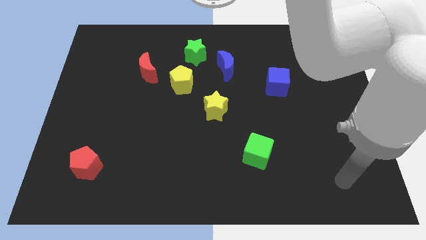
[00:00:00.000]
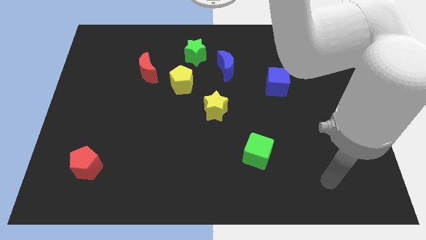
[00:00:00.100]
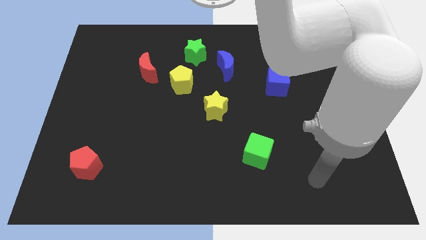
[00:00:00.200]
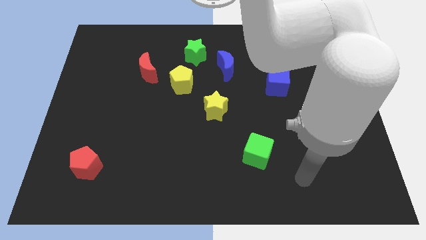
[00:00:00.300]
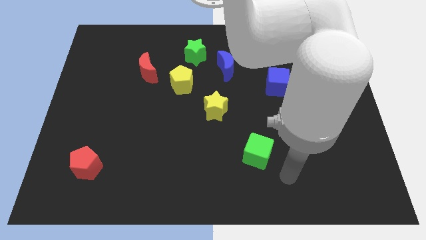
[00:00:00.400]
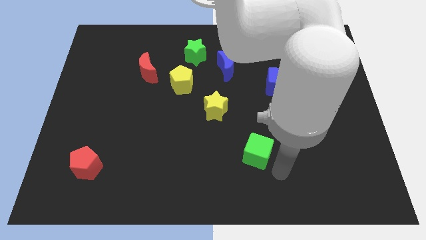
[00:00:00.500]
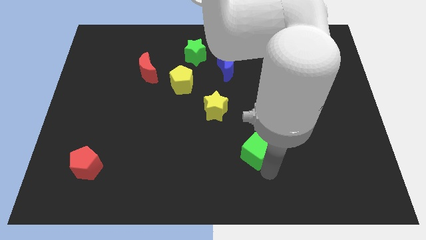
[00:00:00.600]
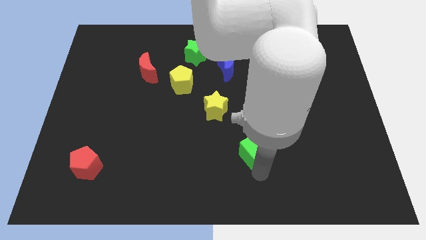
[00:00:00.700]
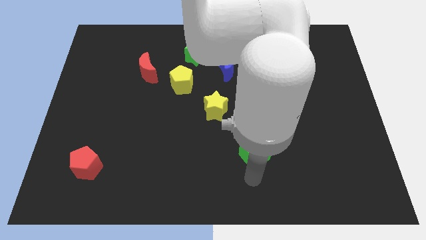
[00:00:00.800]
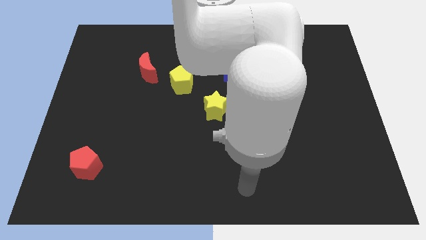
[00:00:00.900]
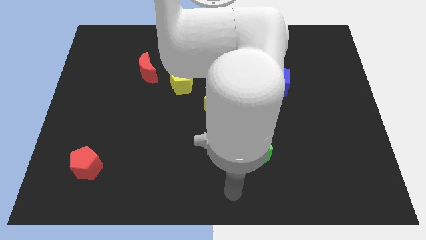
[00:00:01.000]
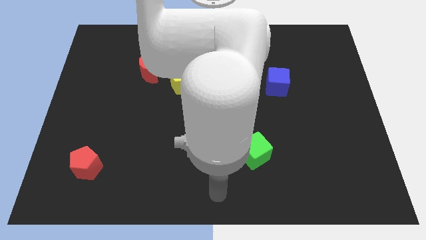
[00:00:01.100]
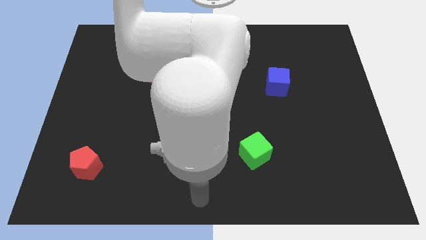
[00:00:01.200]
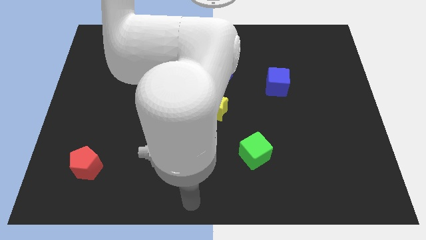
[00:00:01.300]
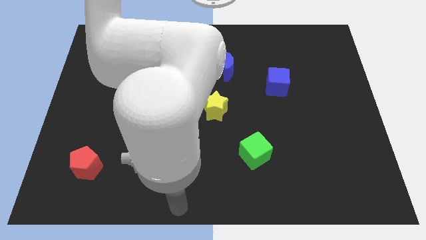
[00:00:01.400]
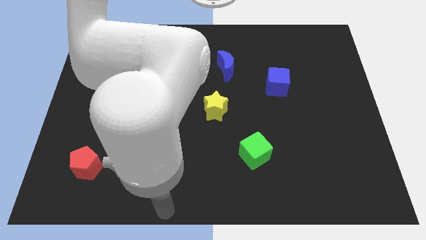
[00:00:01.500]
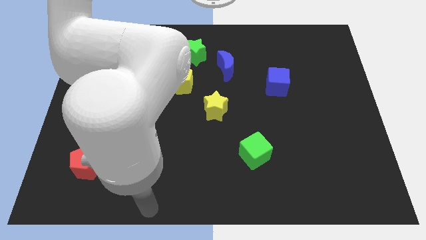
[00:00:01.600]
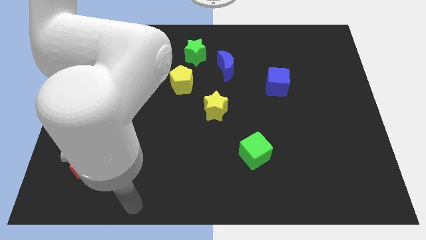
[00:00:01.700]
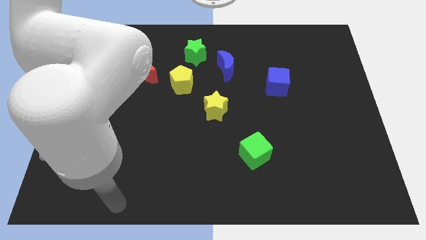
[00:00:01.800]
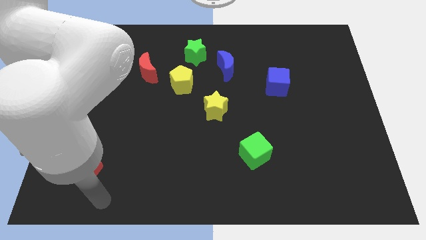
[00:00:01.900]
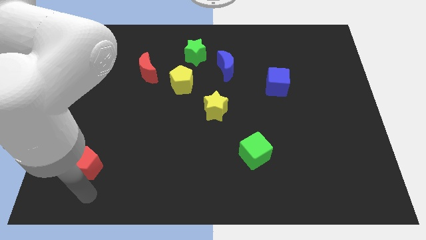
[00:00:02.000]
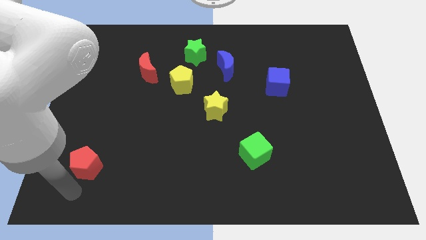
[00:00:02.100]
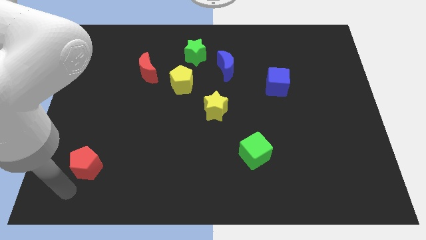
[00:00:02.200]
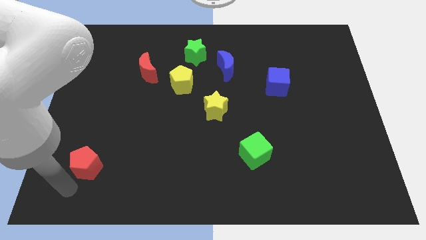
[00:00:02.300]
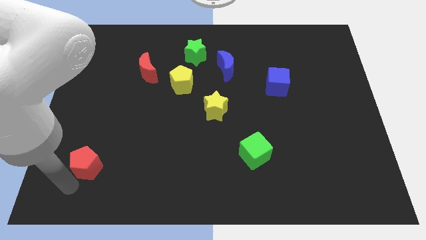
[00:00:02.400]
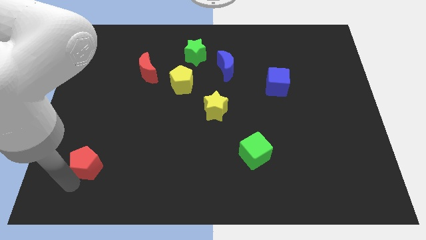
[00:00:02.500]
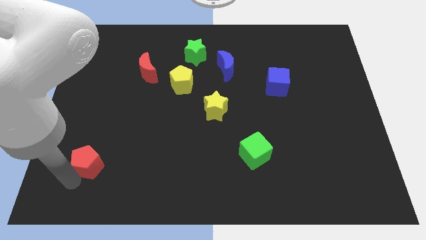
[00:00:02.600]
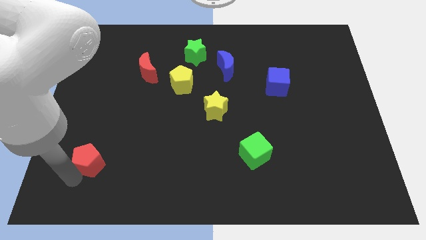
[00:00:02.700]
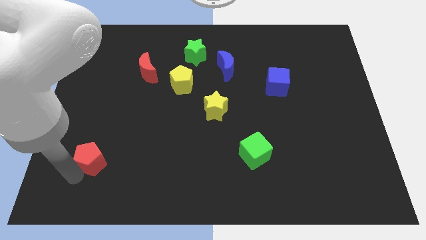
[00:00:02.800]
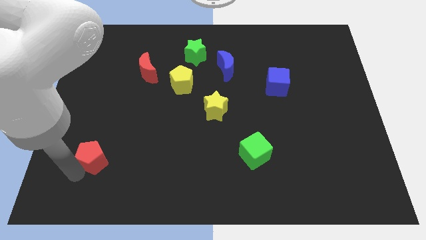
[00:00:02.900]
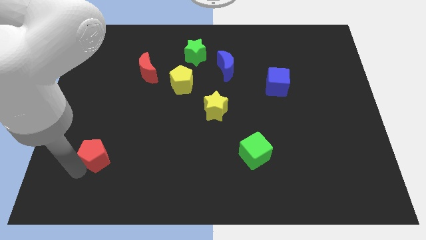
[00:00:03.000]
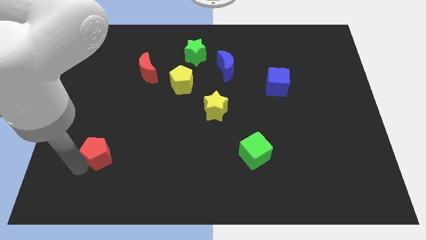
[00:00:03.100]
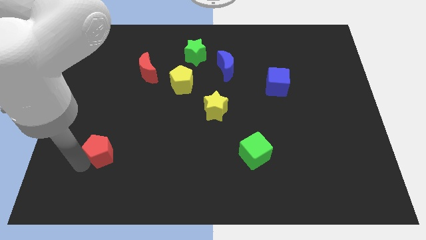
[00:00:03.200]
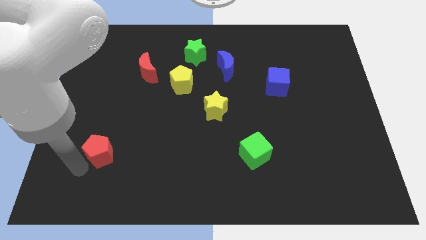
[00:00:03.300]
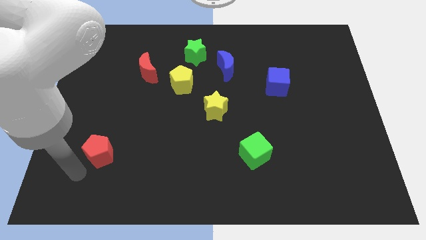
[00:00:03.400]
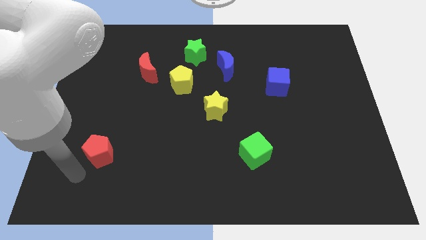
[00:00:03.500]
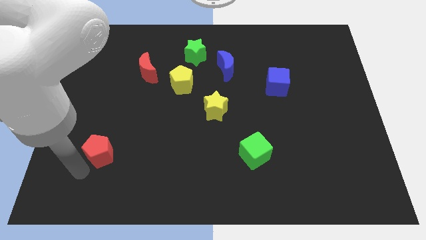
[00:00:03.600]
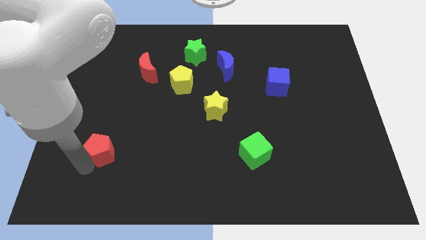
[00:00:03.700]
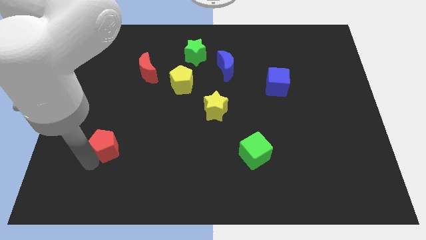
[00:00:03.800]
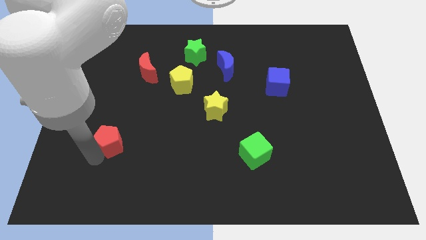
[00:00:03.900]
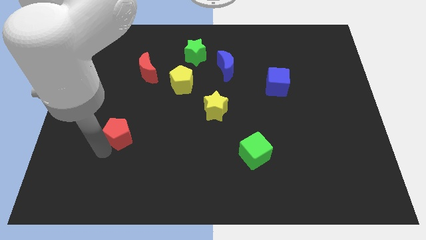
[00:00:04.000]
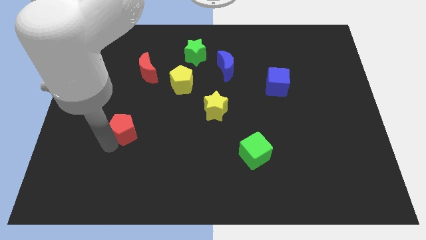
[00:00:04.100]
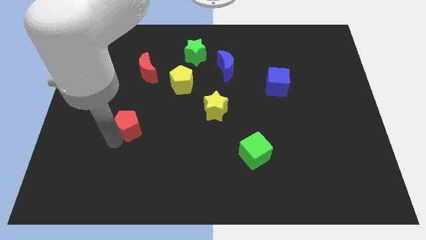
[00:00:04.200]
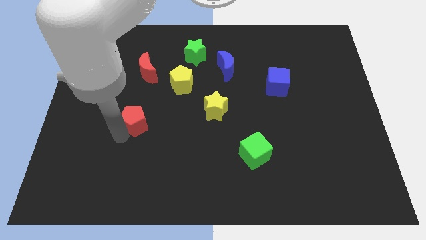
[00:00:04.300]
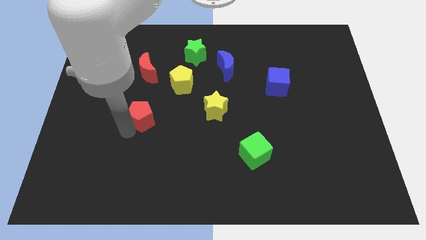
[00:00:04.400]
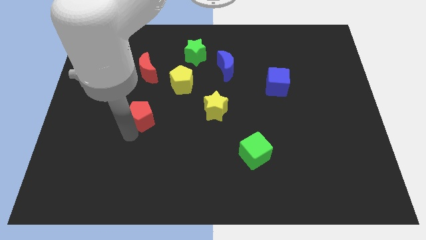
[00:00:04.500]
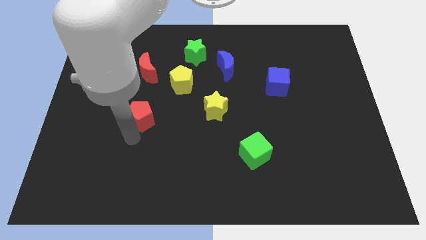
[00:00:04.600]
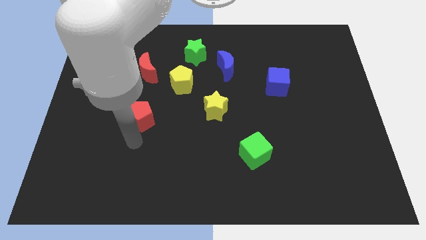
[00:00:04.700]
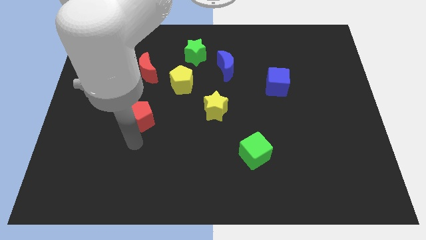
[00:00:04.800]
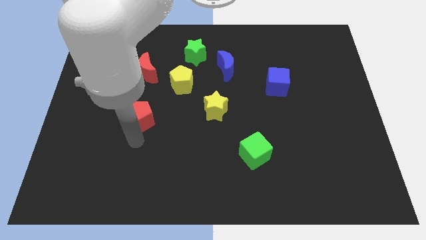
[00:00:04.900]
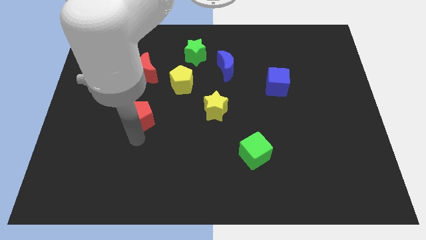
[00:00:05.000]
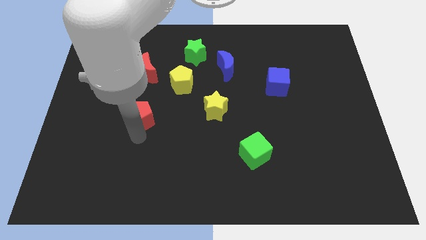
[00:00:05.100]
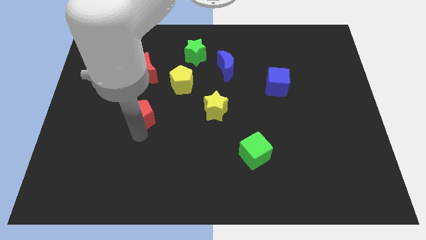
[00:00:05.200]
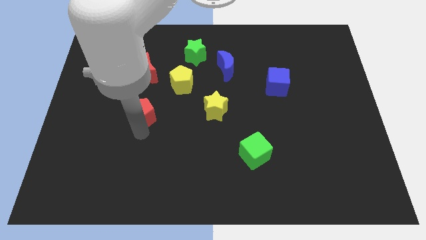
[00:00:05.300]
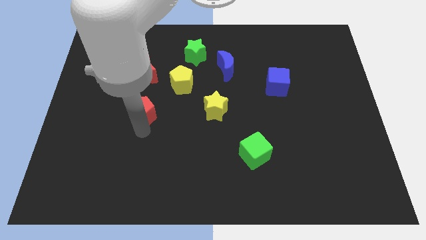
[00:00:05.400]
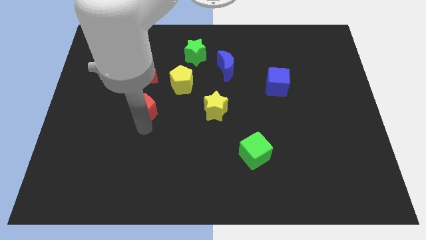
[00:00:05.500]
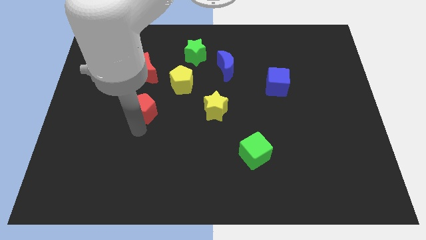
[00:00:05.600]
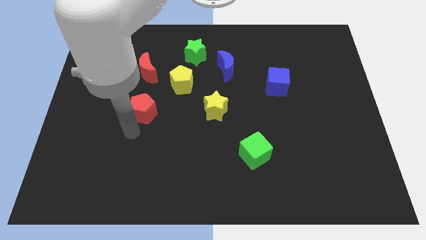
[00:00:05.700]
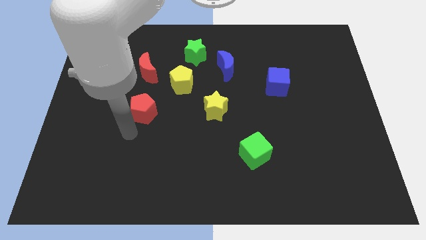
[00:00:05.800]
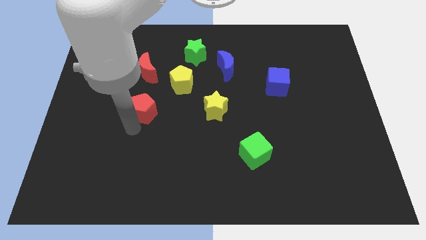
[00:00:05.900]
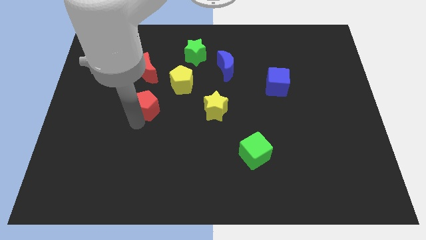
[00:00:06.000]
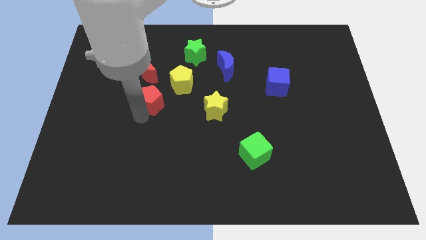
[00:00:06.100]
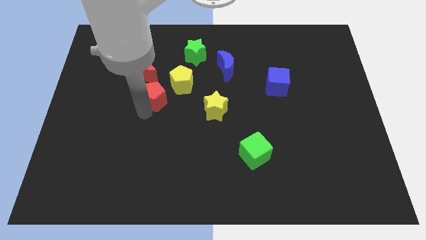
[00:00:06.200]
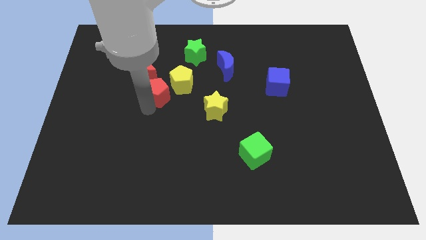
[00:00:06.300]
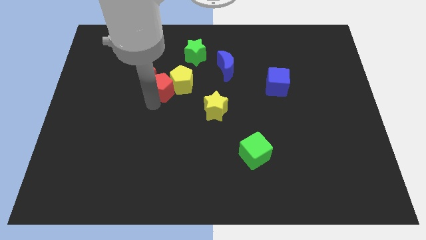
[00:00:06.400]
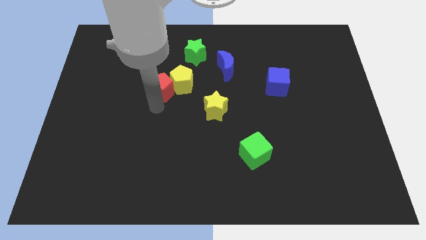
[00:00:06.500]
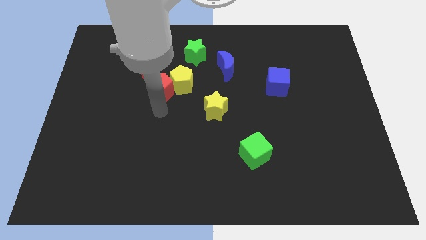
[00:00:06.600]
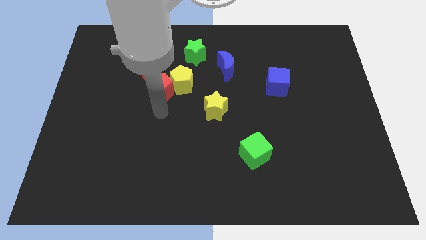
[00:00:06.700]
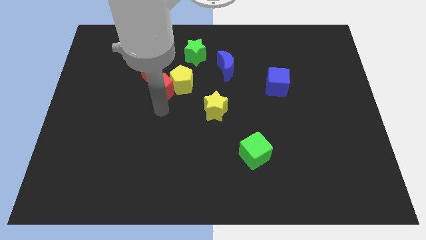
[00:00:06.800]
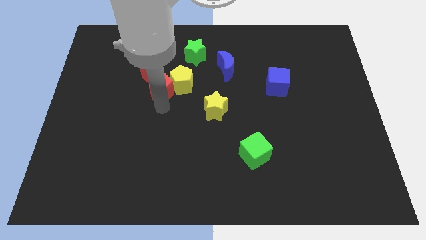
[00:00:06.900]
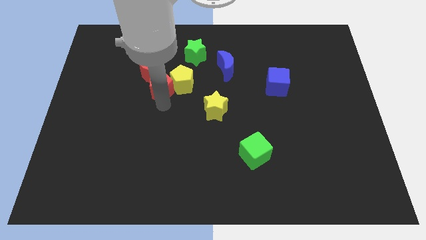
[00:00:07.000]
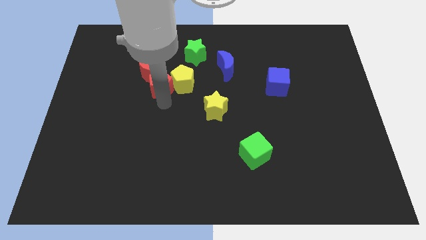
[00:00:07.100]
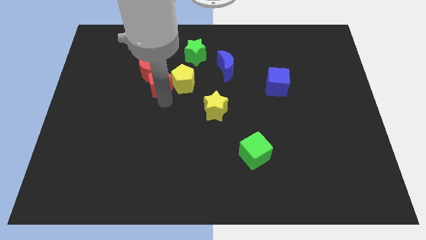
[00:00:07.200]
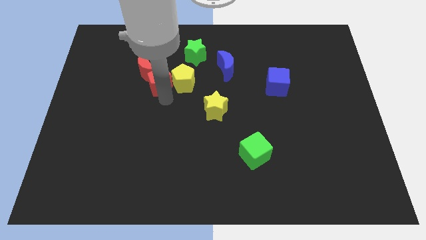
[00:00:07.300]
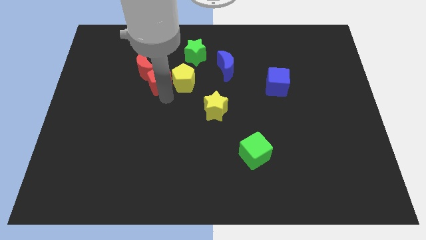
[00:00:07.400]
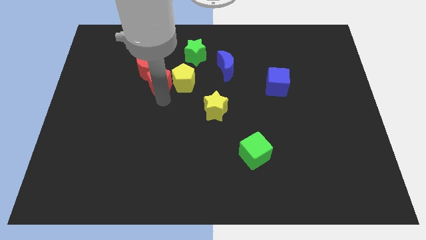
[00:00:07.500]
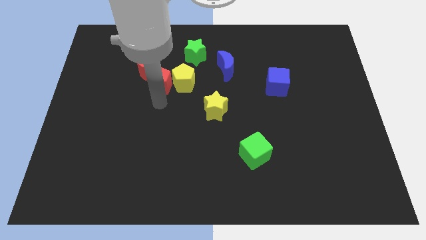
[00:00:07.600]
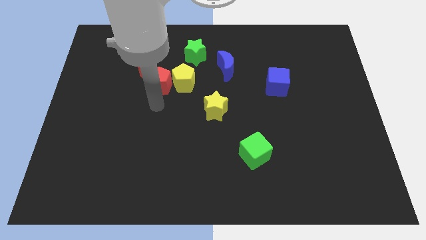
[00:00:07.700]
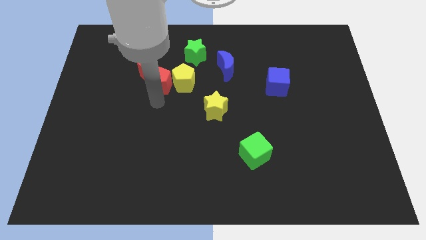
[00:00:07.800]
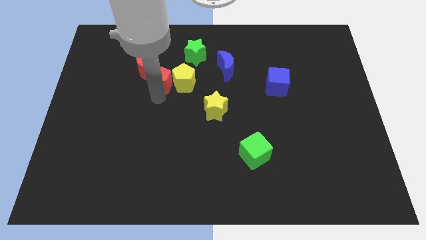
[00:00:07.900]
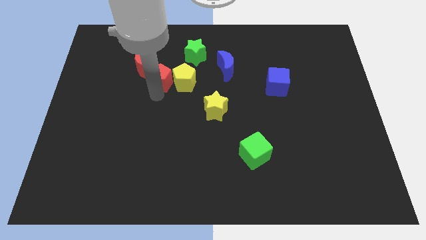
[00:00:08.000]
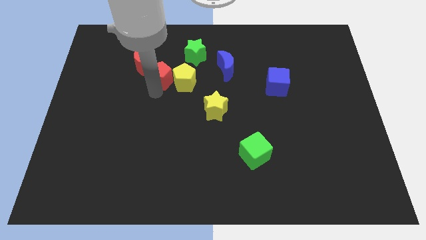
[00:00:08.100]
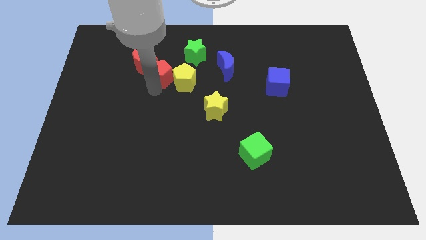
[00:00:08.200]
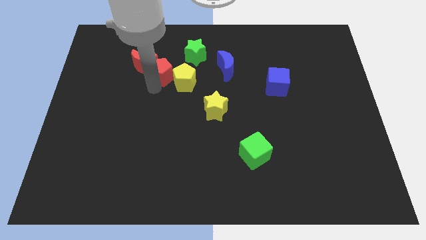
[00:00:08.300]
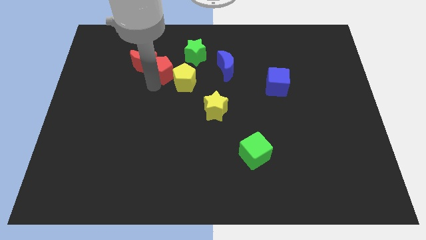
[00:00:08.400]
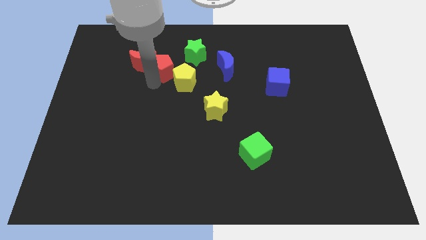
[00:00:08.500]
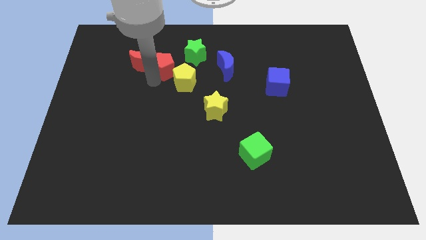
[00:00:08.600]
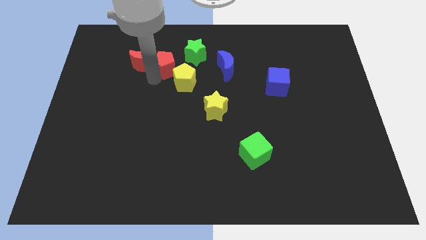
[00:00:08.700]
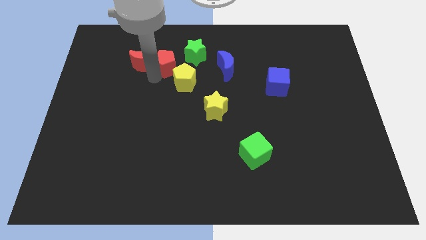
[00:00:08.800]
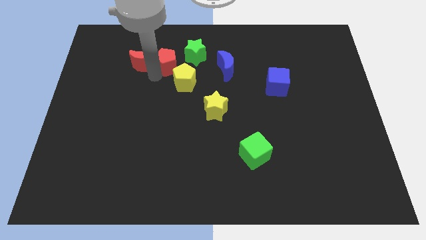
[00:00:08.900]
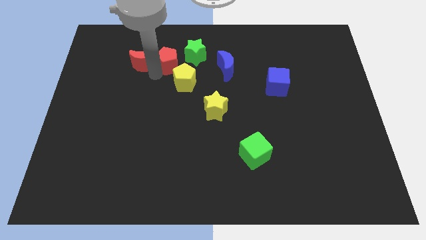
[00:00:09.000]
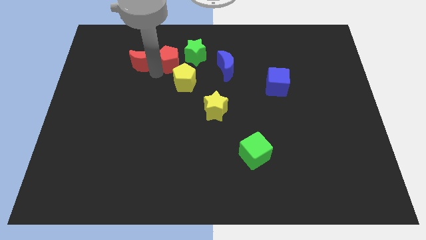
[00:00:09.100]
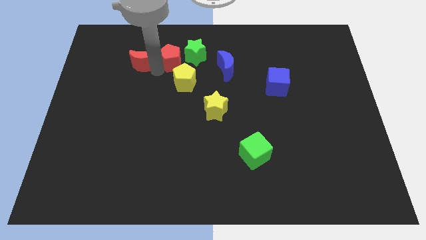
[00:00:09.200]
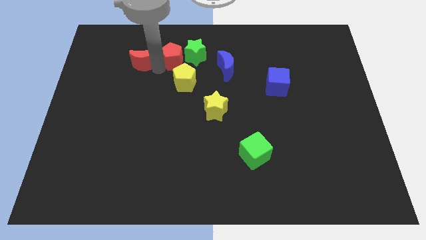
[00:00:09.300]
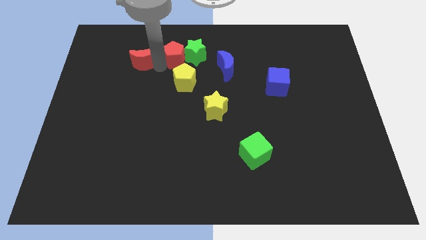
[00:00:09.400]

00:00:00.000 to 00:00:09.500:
slide the red pentagon towards the green star
